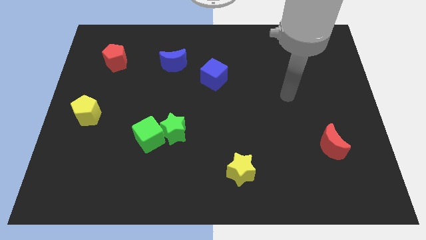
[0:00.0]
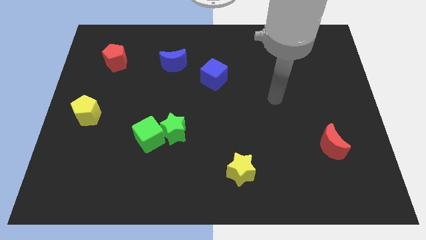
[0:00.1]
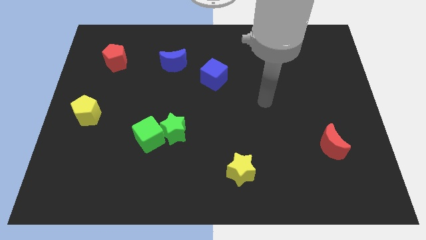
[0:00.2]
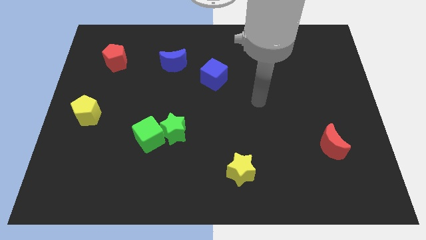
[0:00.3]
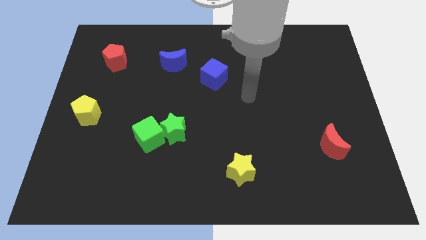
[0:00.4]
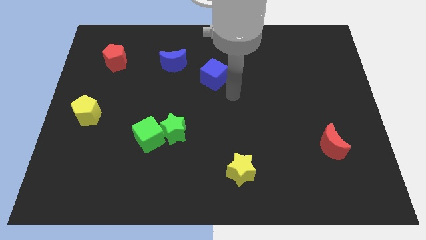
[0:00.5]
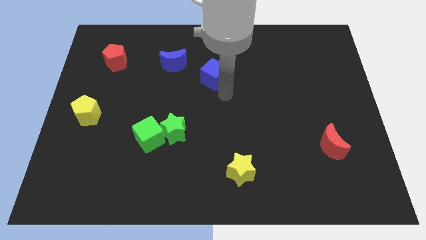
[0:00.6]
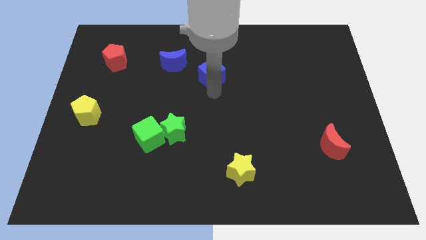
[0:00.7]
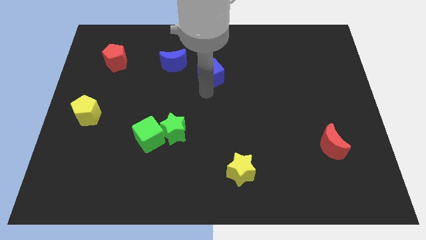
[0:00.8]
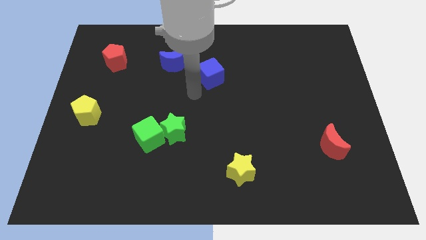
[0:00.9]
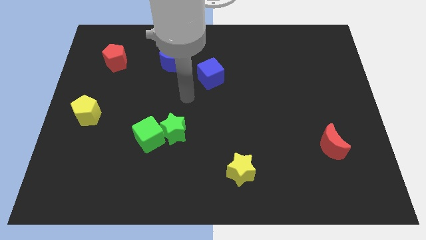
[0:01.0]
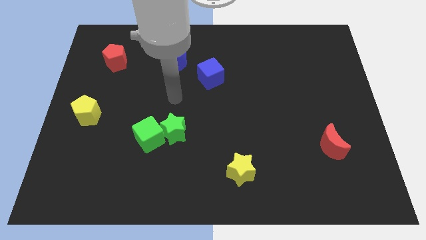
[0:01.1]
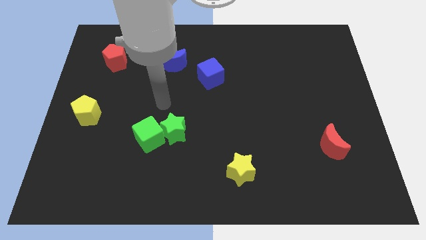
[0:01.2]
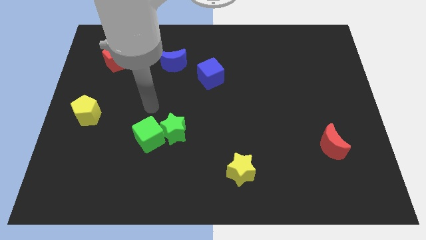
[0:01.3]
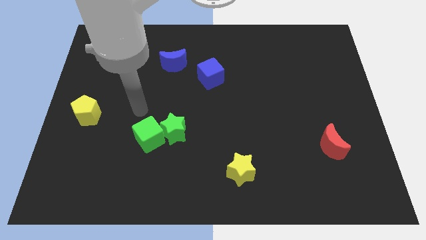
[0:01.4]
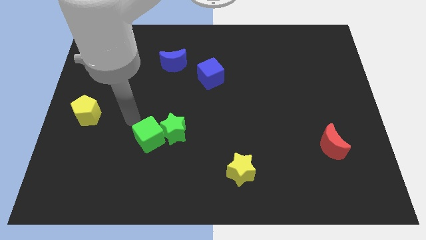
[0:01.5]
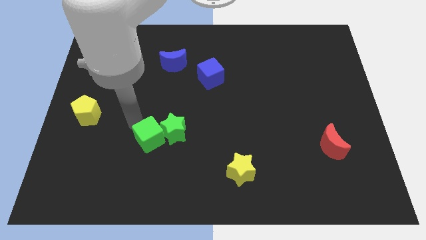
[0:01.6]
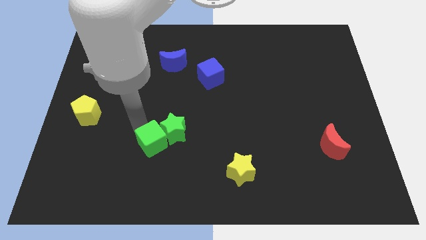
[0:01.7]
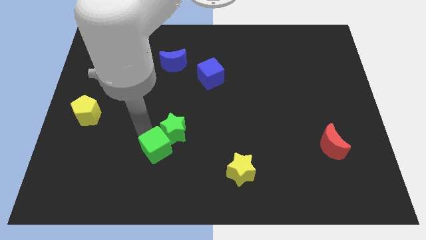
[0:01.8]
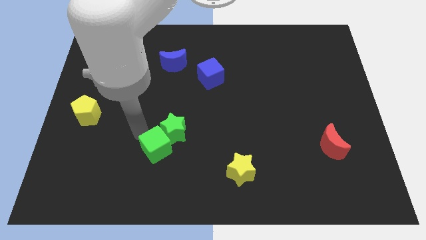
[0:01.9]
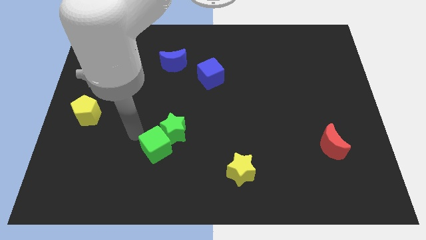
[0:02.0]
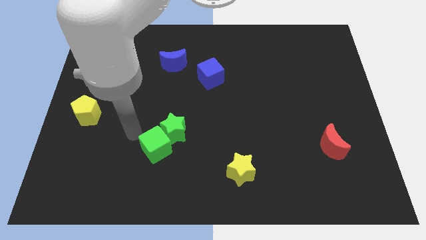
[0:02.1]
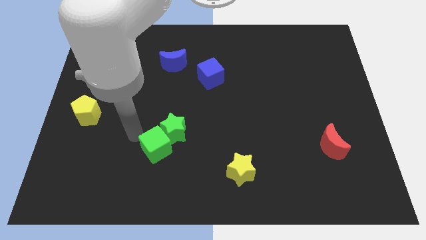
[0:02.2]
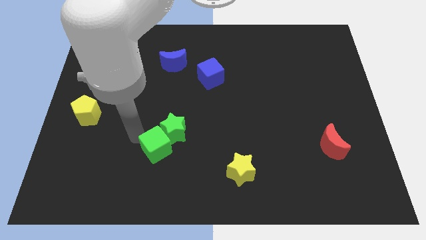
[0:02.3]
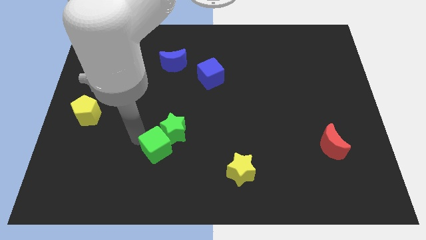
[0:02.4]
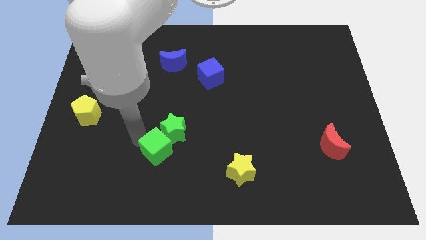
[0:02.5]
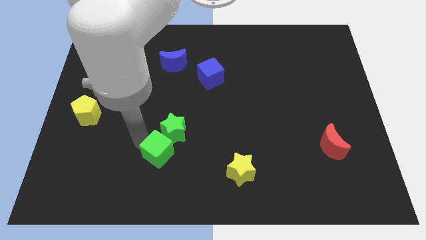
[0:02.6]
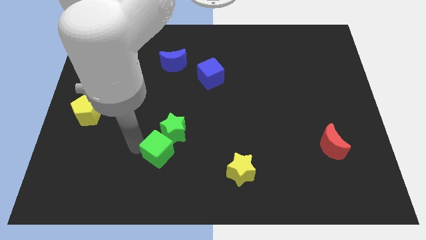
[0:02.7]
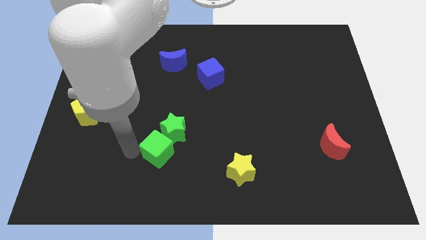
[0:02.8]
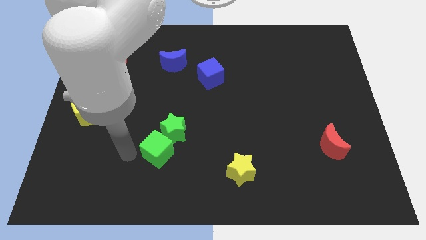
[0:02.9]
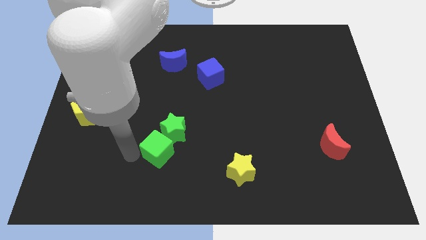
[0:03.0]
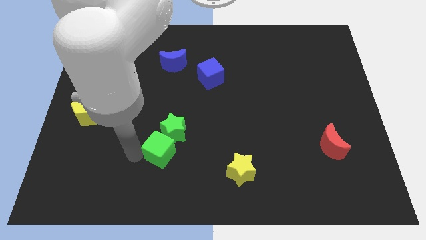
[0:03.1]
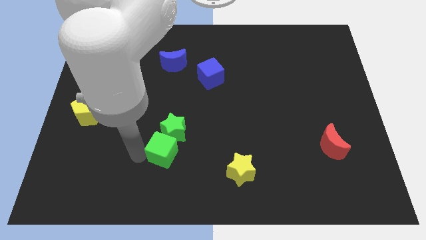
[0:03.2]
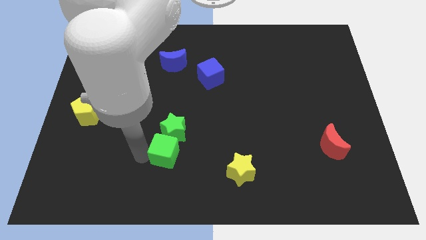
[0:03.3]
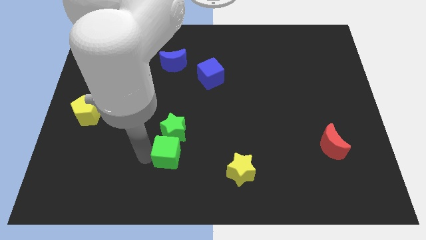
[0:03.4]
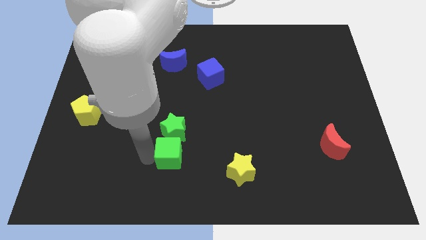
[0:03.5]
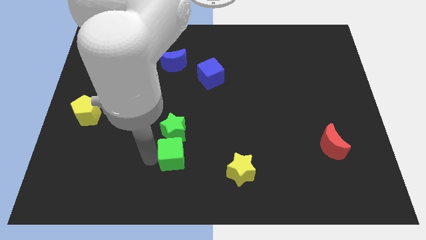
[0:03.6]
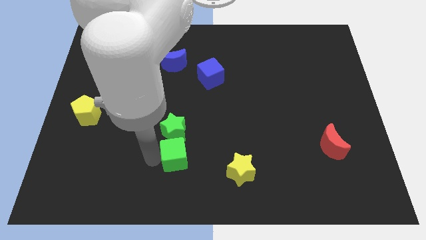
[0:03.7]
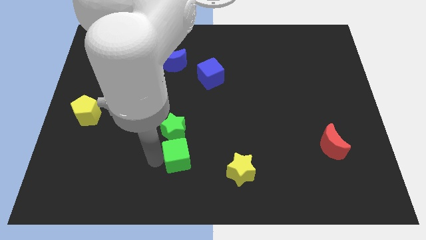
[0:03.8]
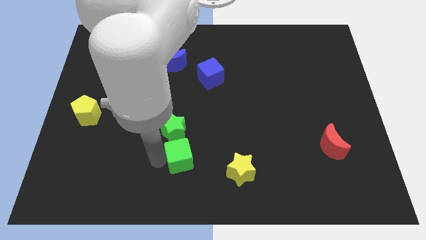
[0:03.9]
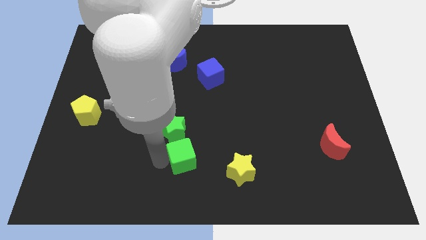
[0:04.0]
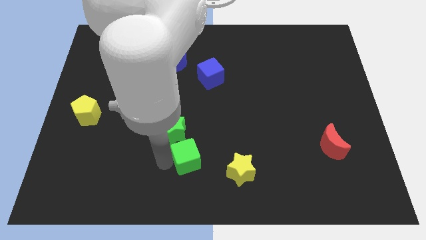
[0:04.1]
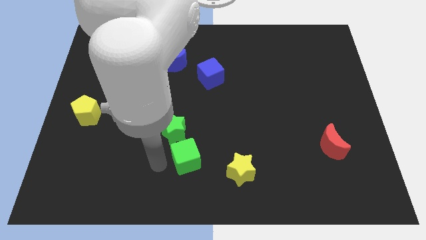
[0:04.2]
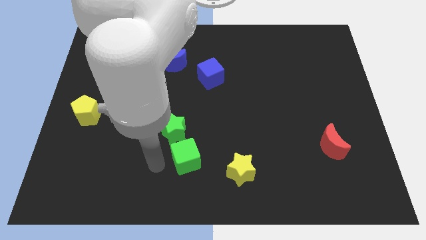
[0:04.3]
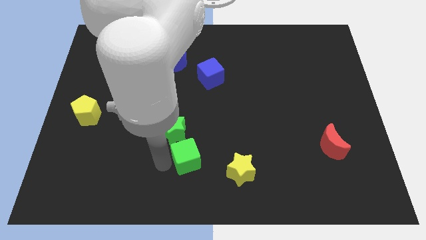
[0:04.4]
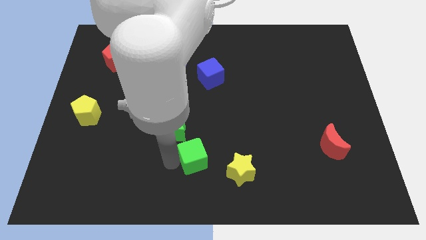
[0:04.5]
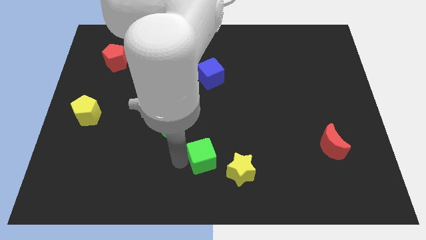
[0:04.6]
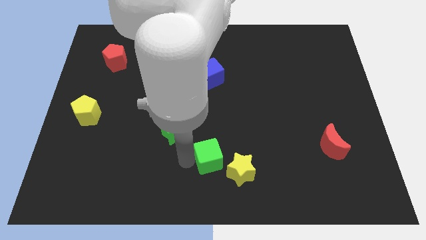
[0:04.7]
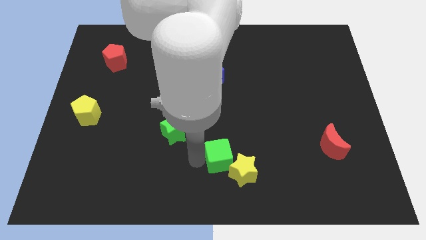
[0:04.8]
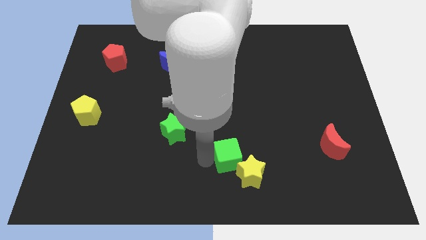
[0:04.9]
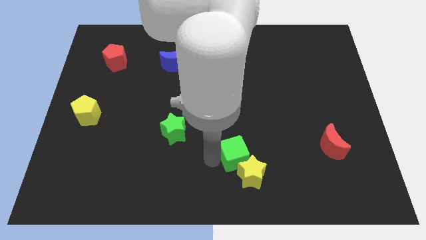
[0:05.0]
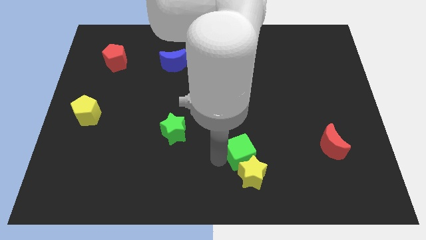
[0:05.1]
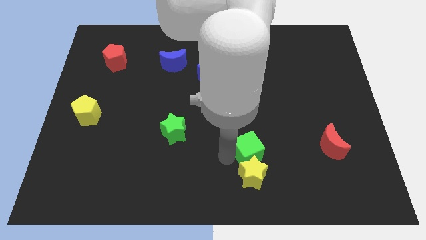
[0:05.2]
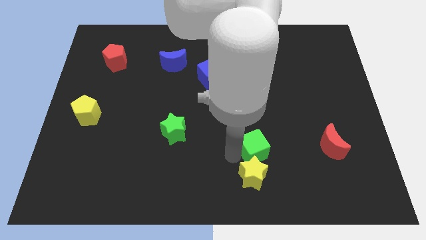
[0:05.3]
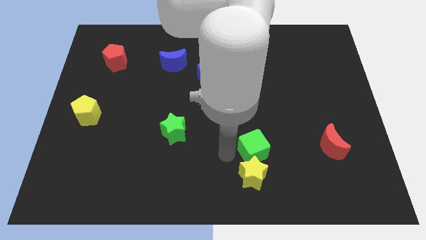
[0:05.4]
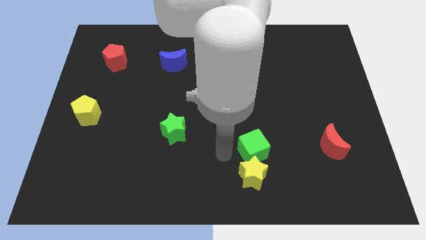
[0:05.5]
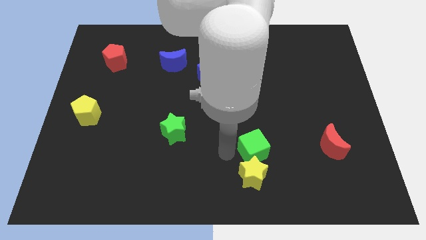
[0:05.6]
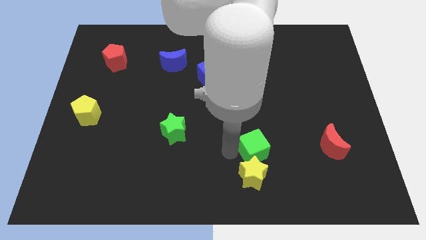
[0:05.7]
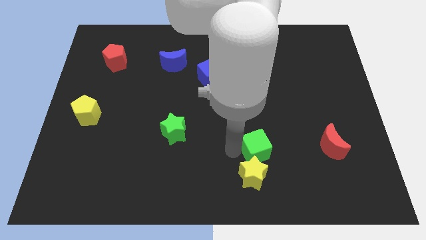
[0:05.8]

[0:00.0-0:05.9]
move the green cube to the left side of the red moon

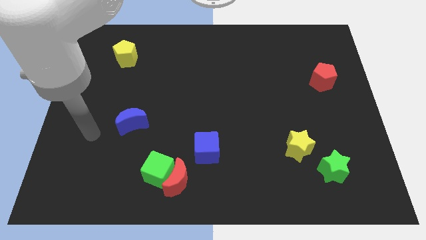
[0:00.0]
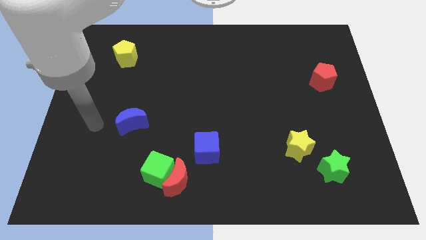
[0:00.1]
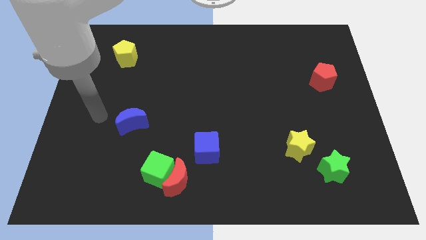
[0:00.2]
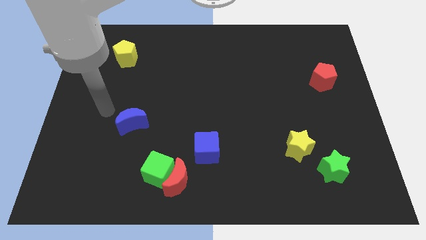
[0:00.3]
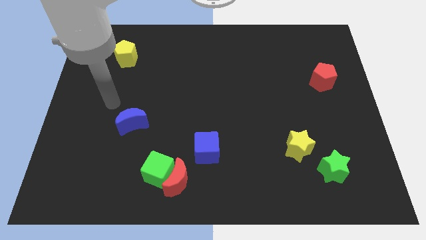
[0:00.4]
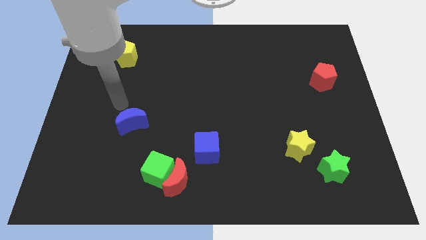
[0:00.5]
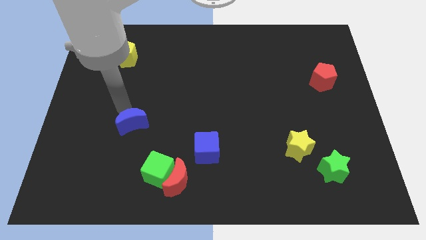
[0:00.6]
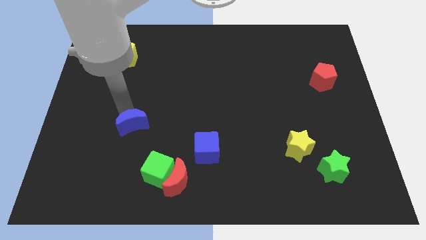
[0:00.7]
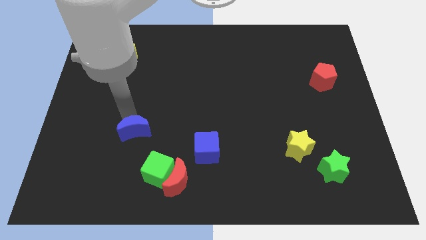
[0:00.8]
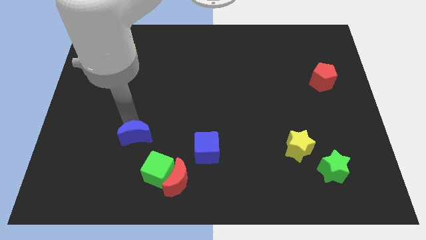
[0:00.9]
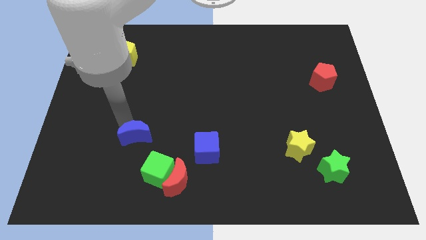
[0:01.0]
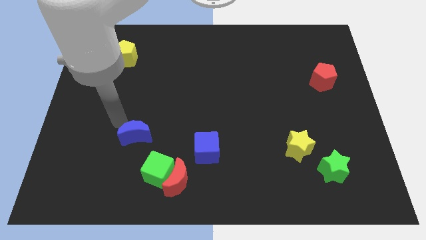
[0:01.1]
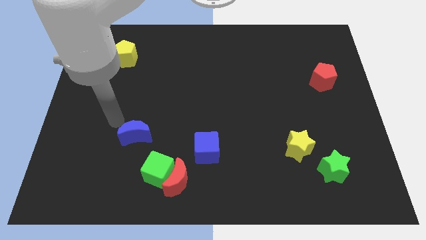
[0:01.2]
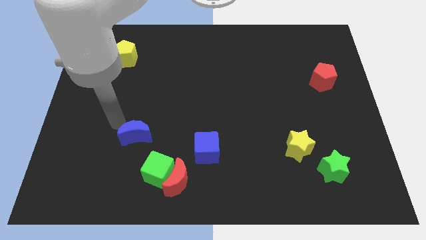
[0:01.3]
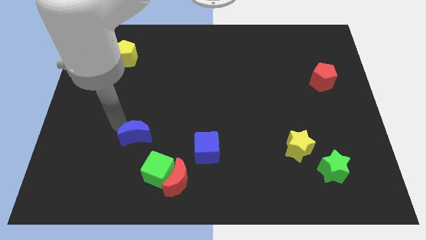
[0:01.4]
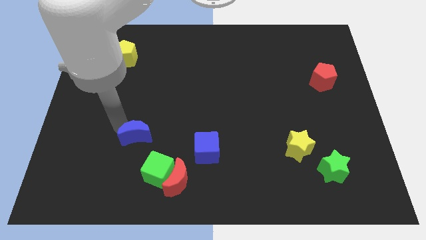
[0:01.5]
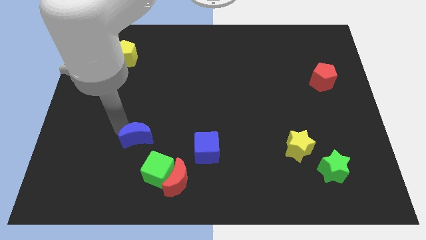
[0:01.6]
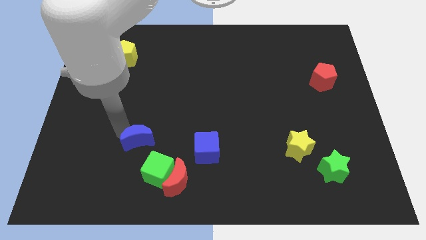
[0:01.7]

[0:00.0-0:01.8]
slide the blue moon left of the blue cube
